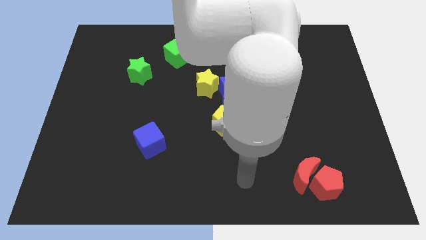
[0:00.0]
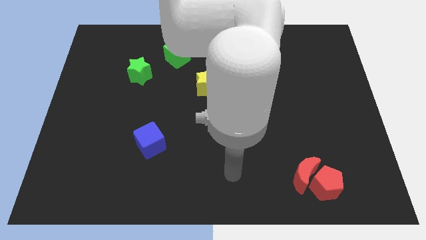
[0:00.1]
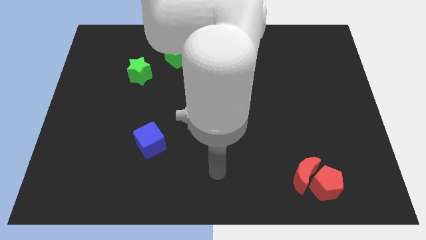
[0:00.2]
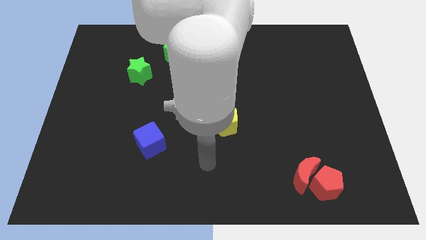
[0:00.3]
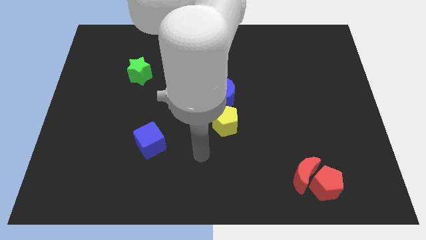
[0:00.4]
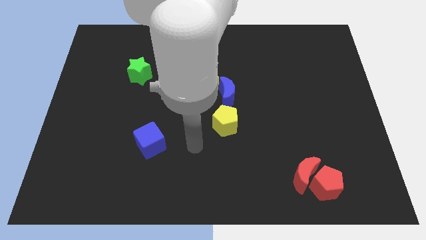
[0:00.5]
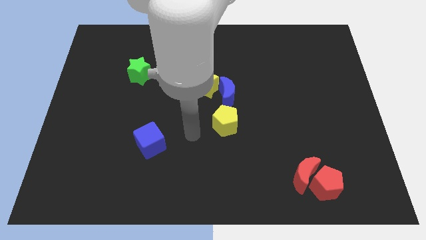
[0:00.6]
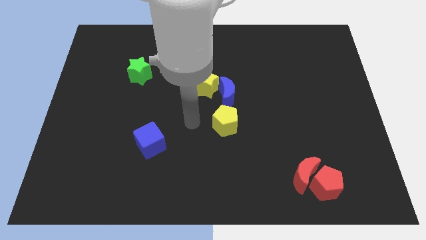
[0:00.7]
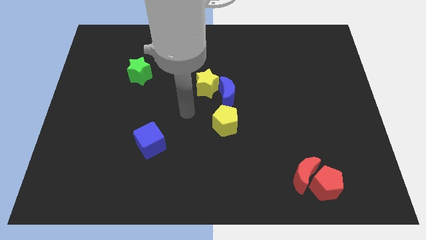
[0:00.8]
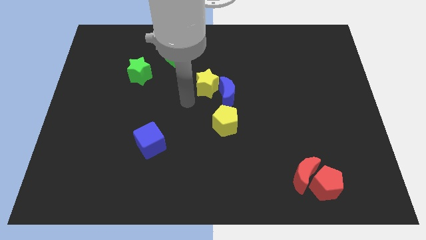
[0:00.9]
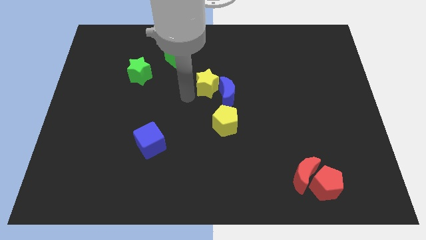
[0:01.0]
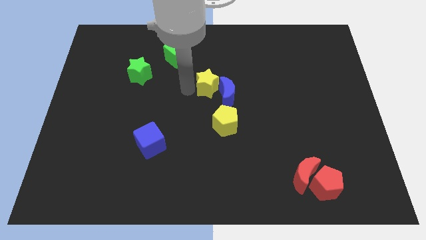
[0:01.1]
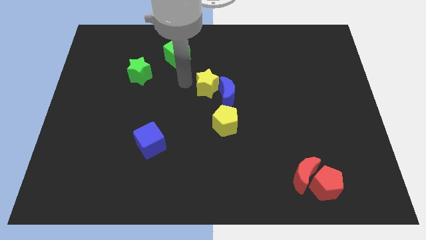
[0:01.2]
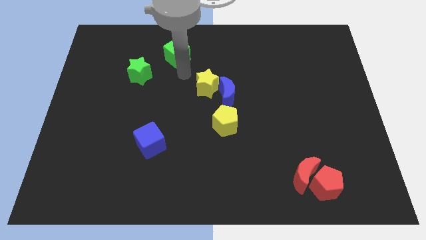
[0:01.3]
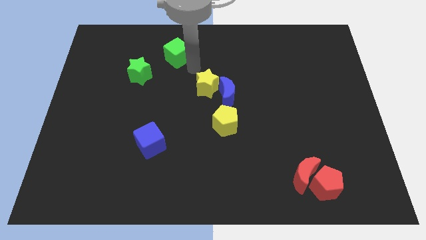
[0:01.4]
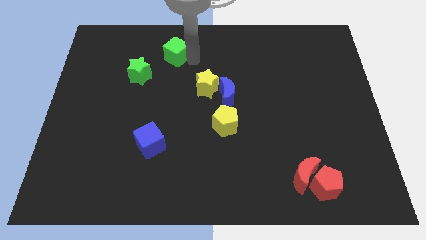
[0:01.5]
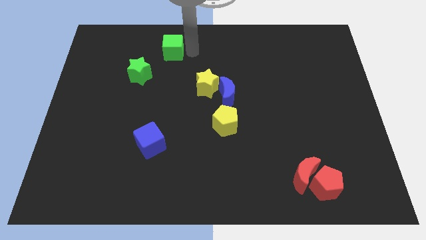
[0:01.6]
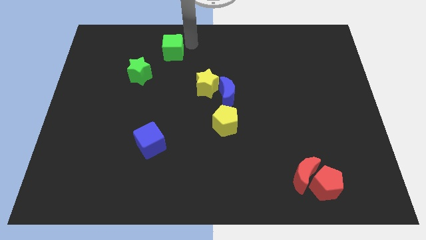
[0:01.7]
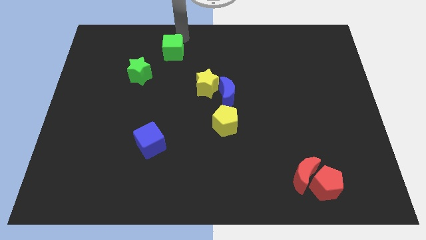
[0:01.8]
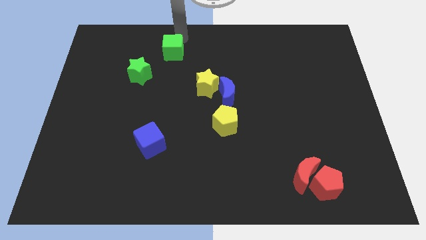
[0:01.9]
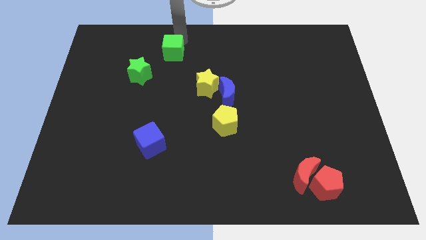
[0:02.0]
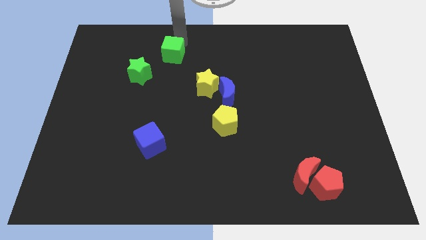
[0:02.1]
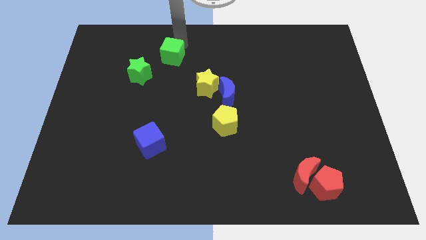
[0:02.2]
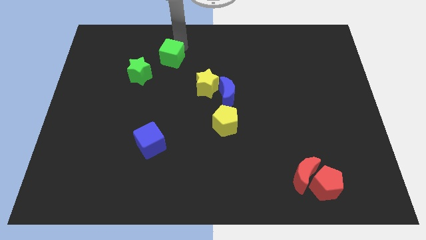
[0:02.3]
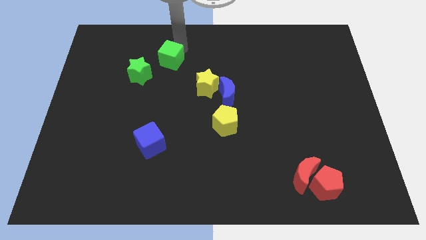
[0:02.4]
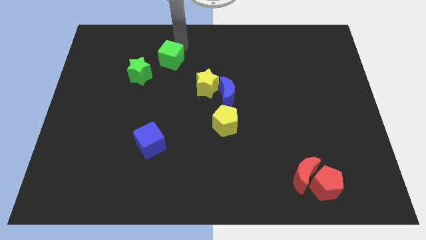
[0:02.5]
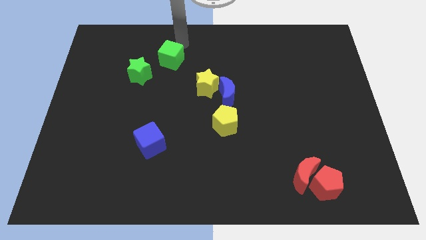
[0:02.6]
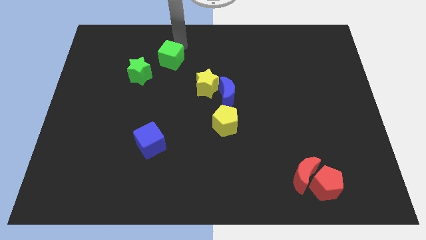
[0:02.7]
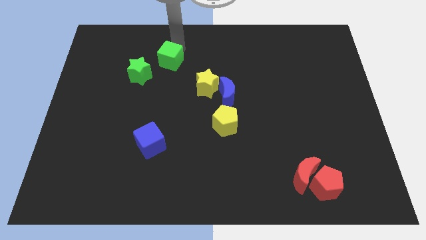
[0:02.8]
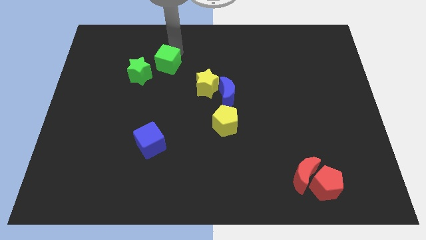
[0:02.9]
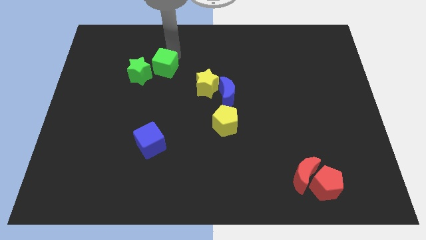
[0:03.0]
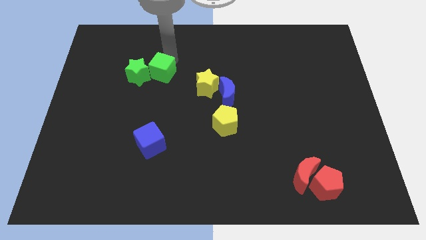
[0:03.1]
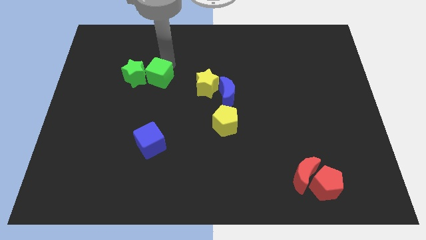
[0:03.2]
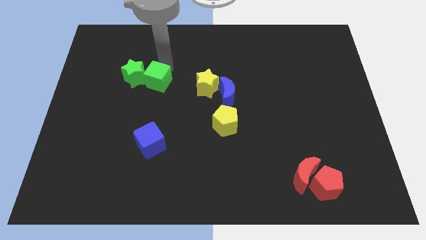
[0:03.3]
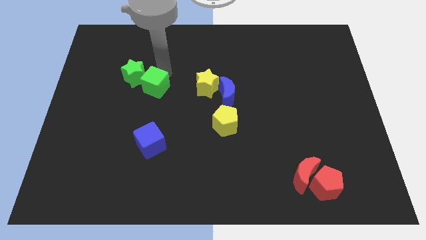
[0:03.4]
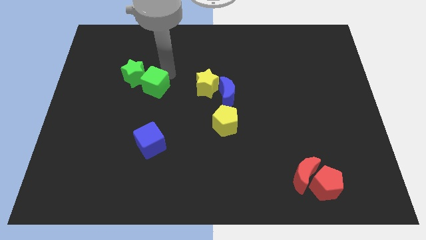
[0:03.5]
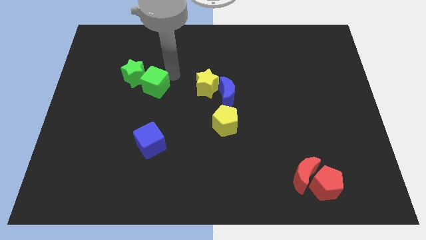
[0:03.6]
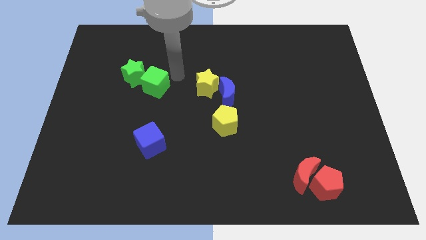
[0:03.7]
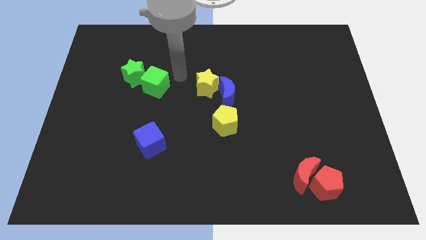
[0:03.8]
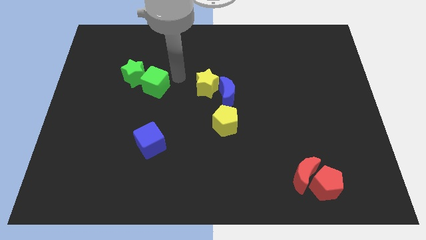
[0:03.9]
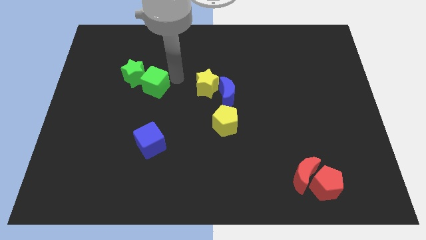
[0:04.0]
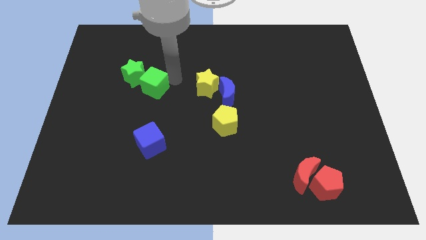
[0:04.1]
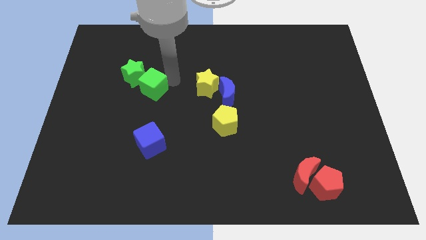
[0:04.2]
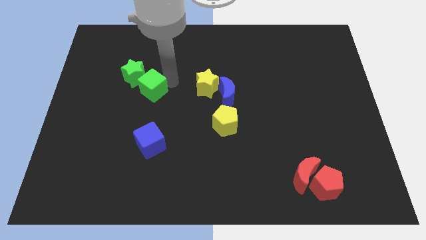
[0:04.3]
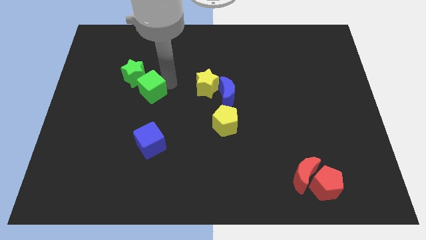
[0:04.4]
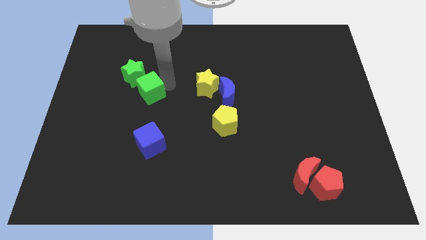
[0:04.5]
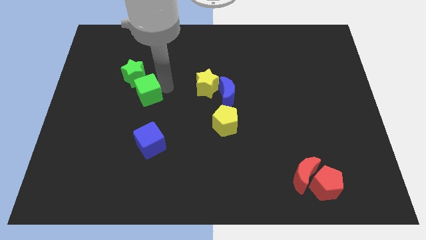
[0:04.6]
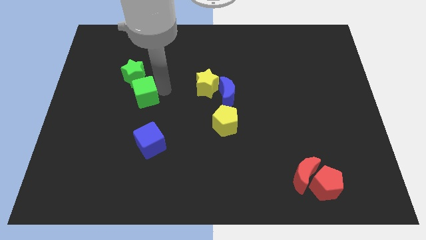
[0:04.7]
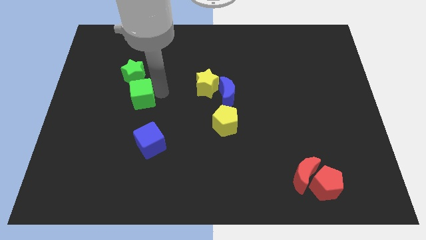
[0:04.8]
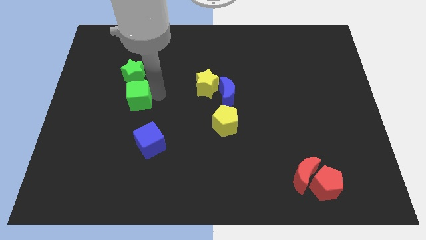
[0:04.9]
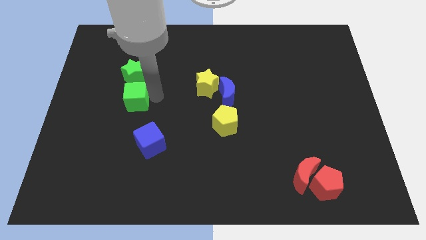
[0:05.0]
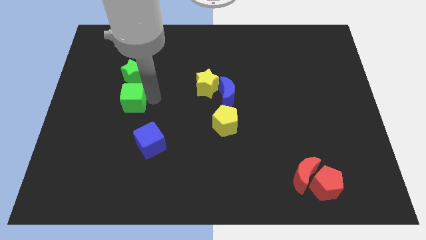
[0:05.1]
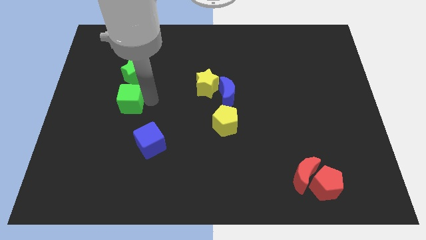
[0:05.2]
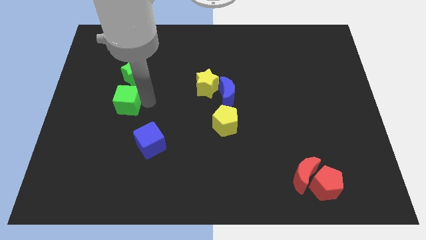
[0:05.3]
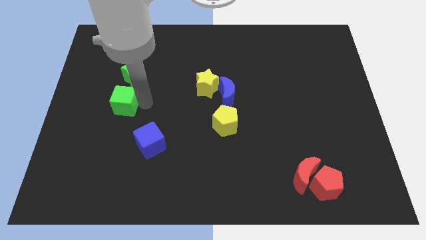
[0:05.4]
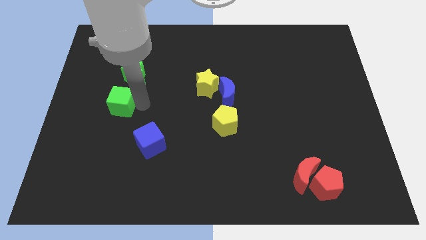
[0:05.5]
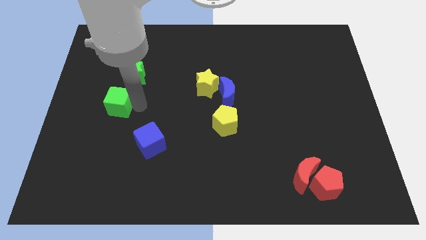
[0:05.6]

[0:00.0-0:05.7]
slide the green cube to the bottom left of the green star

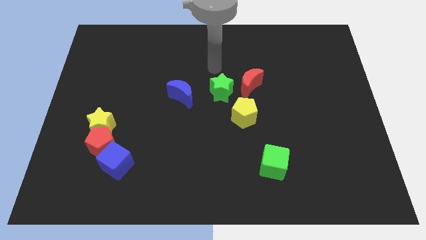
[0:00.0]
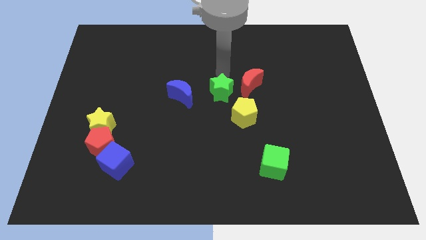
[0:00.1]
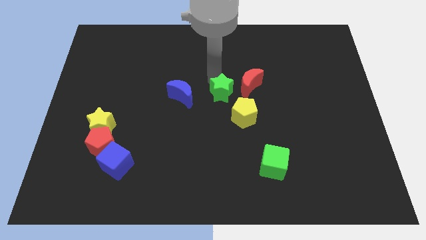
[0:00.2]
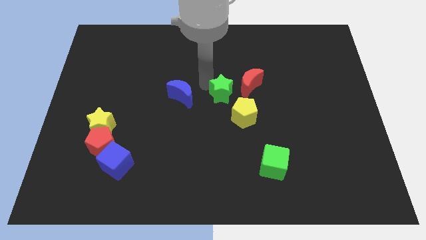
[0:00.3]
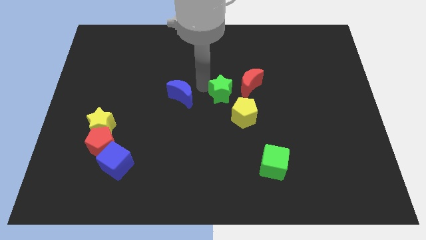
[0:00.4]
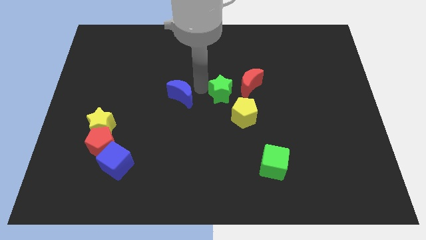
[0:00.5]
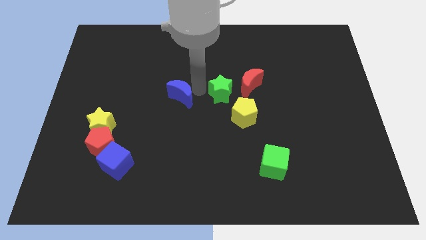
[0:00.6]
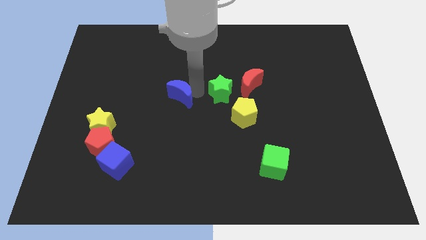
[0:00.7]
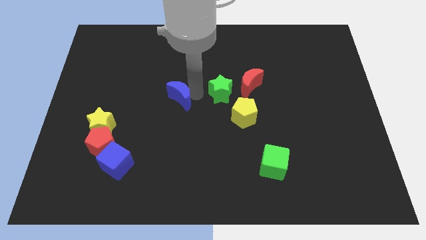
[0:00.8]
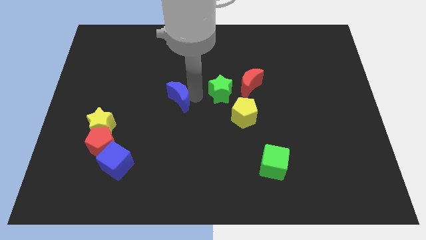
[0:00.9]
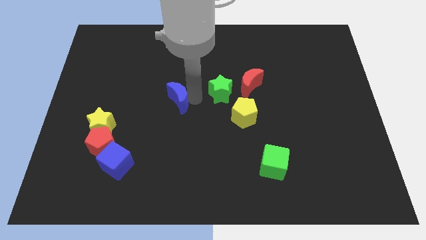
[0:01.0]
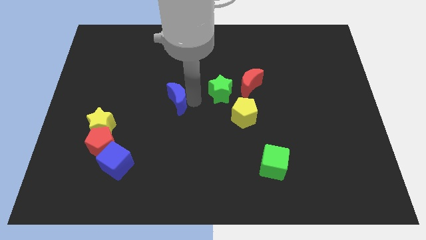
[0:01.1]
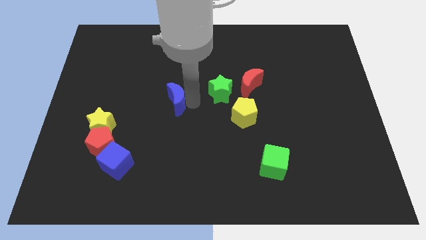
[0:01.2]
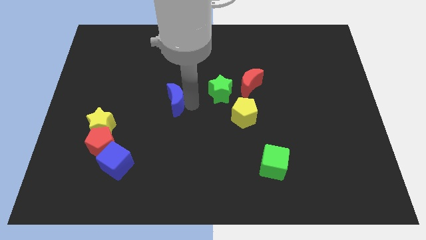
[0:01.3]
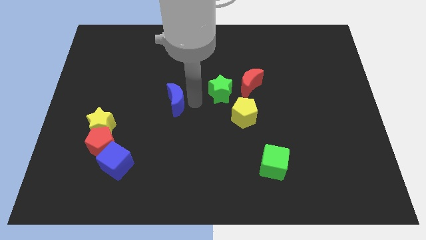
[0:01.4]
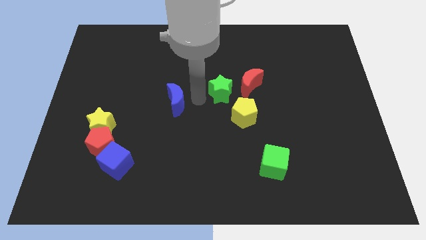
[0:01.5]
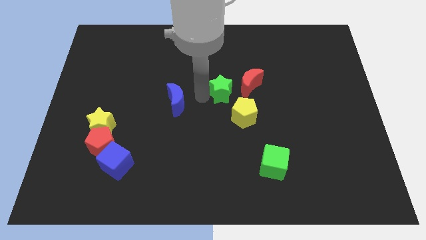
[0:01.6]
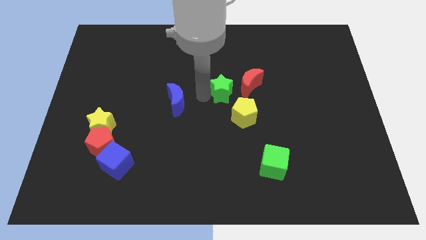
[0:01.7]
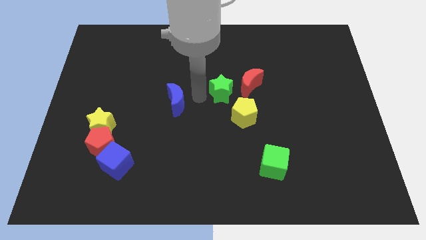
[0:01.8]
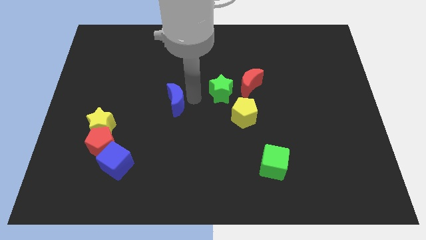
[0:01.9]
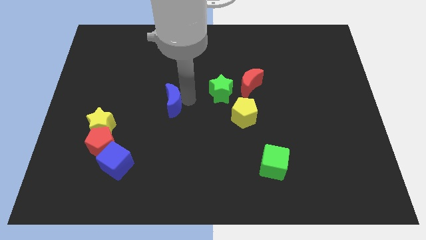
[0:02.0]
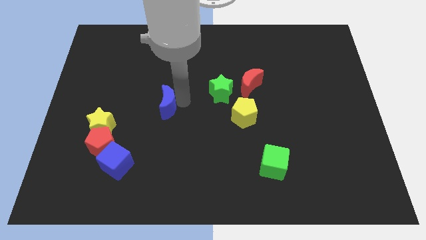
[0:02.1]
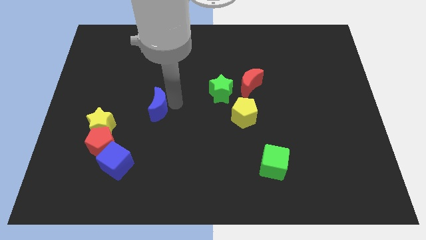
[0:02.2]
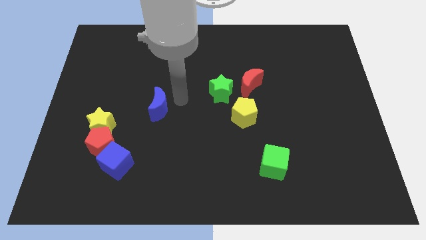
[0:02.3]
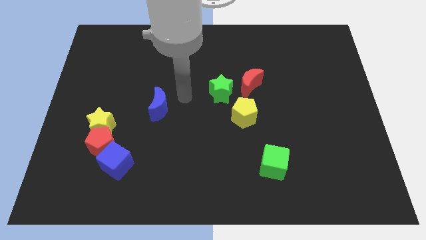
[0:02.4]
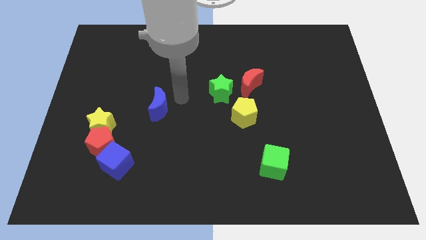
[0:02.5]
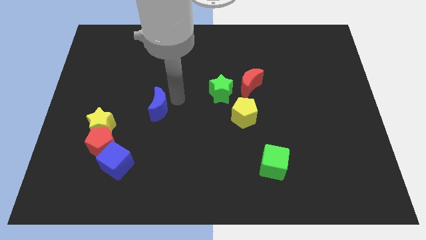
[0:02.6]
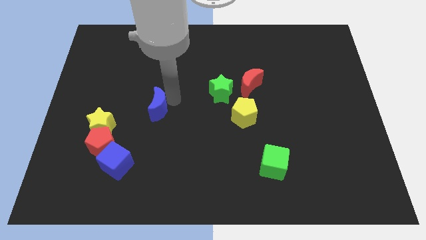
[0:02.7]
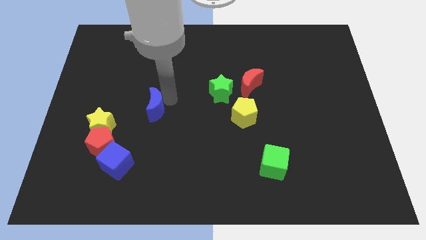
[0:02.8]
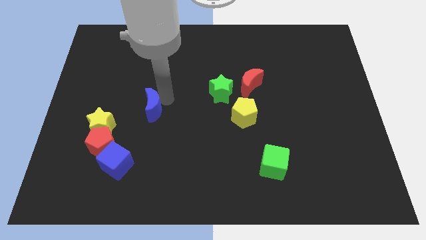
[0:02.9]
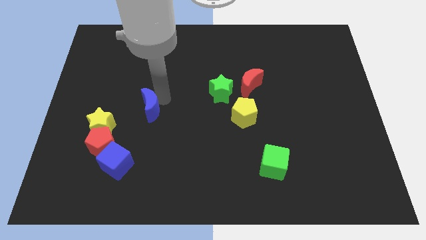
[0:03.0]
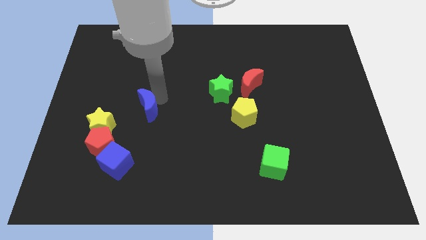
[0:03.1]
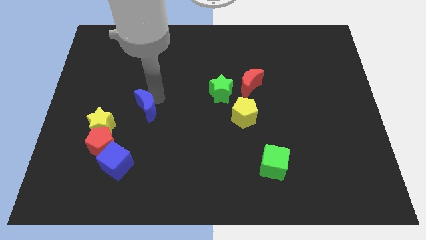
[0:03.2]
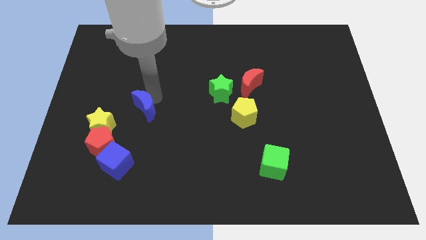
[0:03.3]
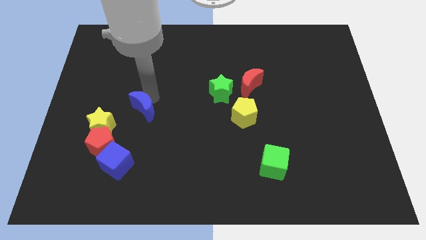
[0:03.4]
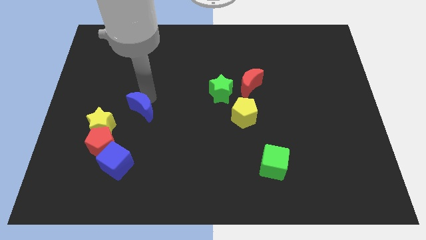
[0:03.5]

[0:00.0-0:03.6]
put the blue moon to the top side of the blue cube
